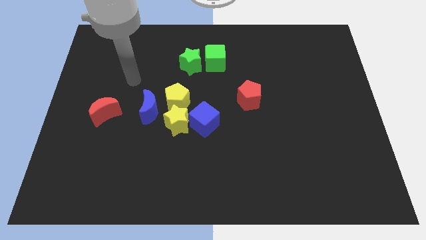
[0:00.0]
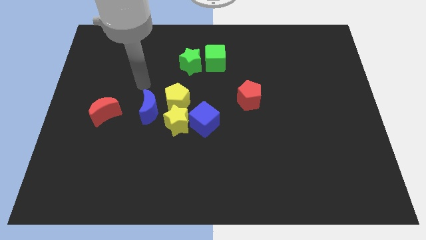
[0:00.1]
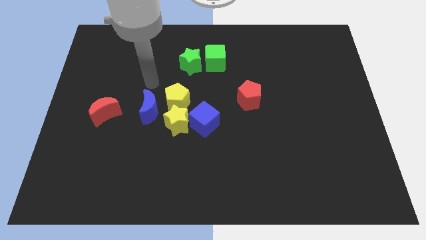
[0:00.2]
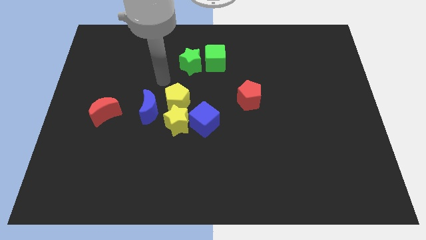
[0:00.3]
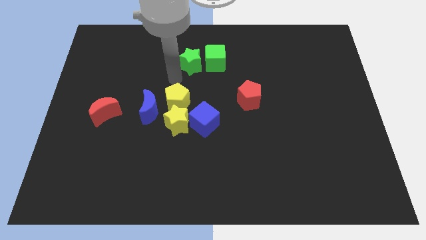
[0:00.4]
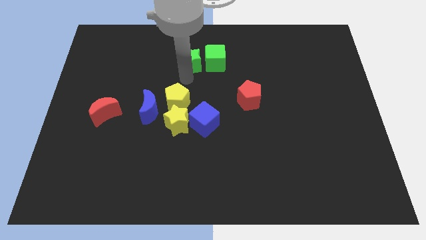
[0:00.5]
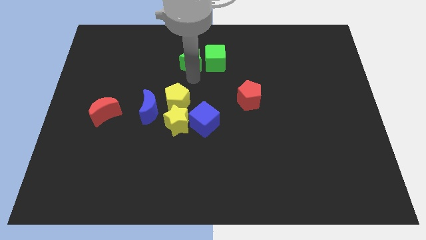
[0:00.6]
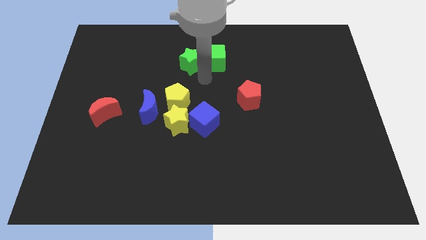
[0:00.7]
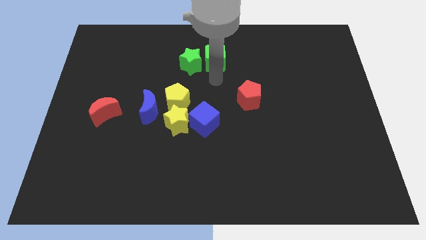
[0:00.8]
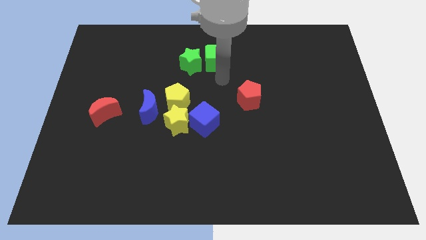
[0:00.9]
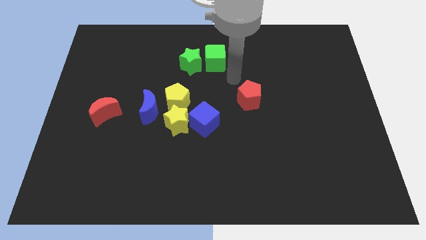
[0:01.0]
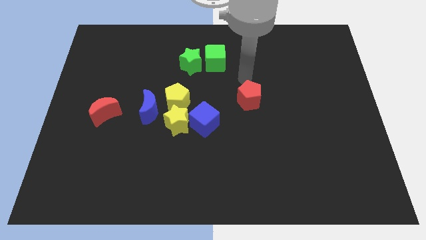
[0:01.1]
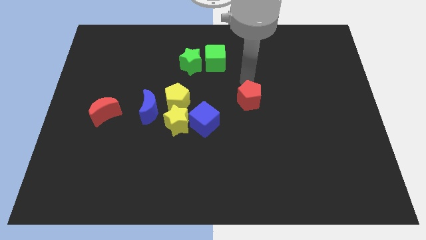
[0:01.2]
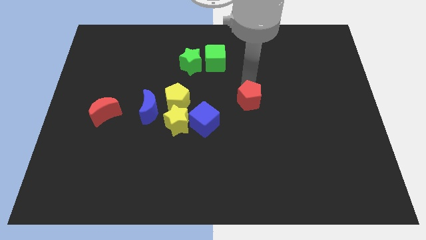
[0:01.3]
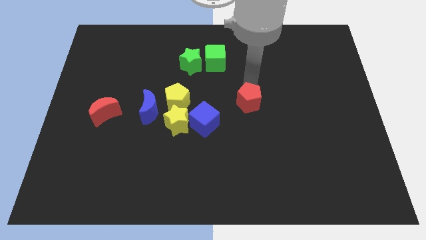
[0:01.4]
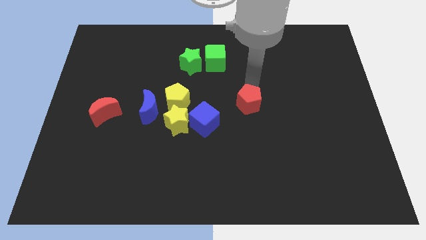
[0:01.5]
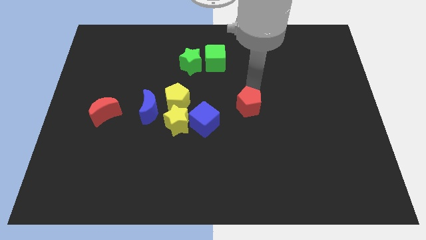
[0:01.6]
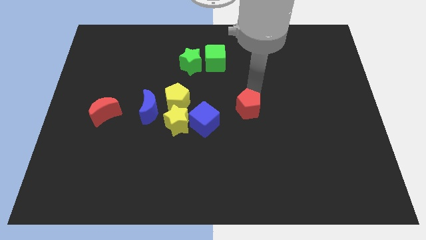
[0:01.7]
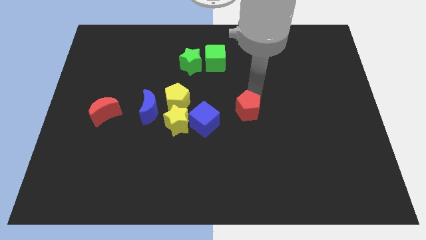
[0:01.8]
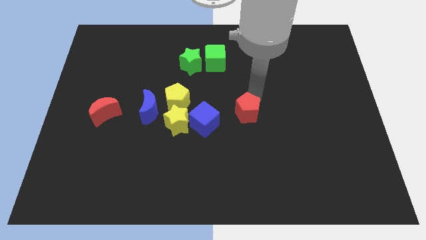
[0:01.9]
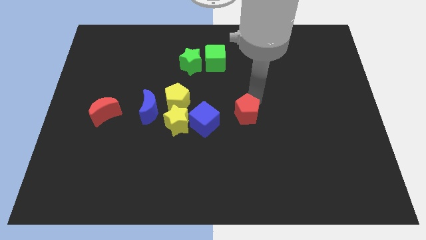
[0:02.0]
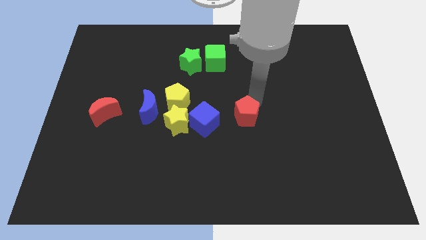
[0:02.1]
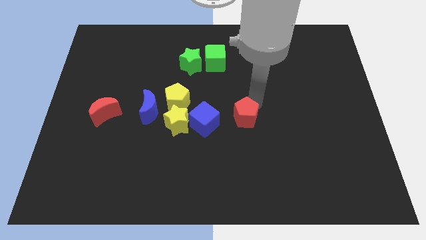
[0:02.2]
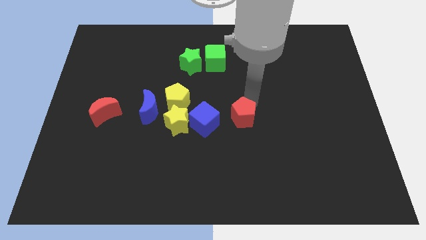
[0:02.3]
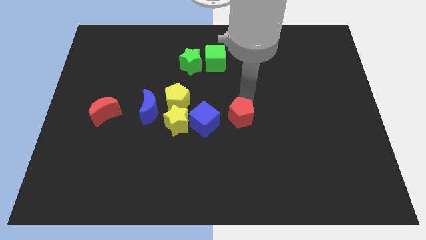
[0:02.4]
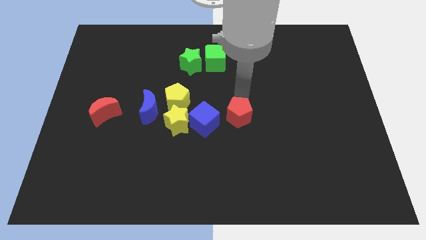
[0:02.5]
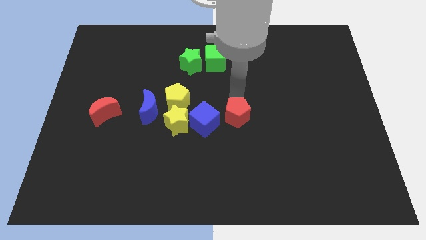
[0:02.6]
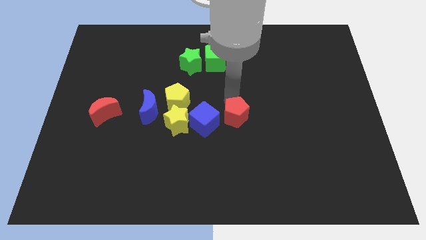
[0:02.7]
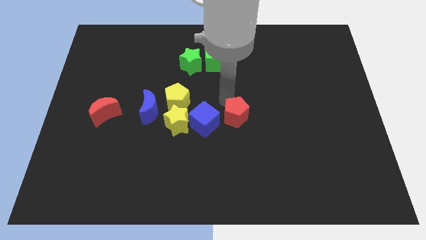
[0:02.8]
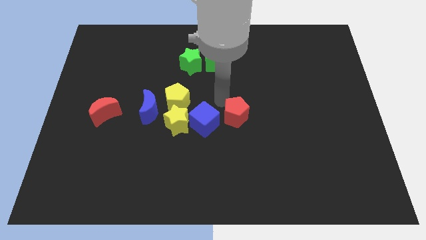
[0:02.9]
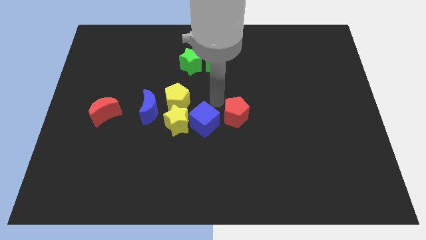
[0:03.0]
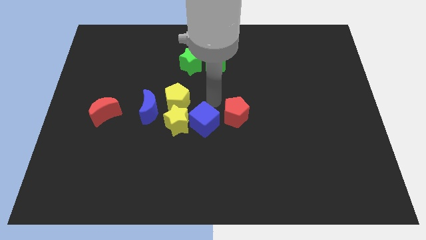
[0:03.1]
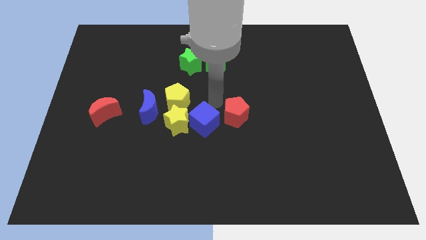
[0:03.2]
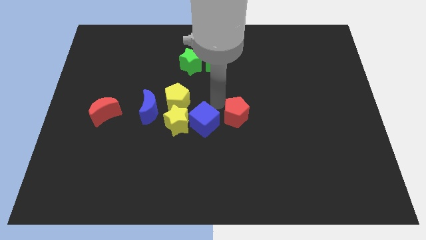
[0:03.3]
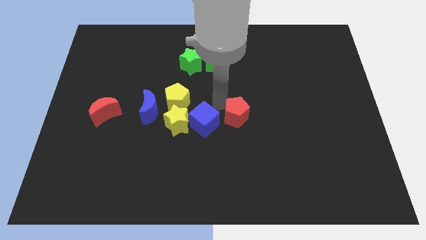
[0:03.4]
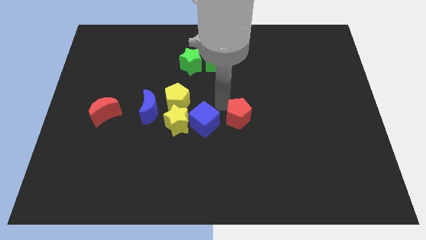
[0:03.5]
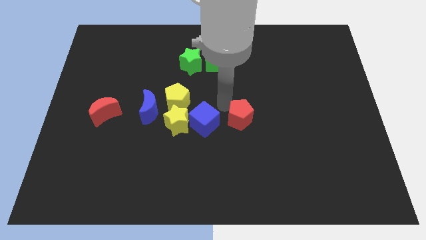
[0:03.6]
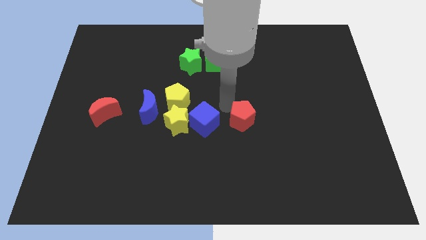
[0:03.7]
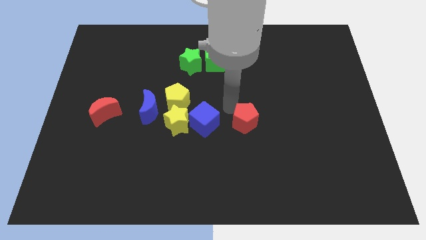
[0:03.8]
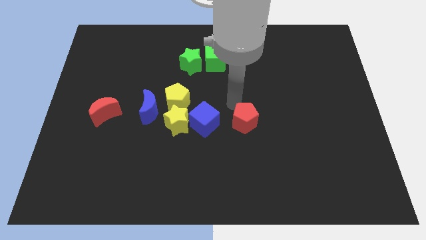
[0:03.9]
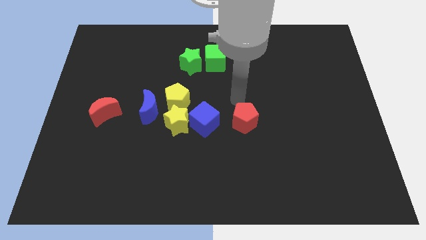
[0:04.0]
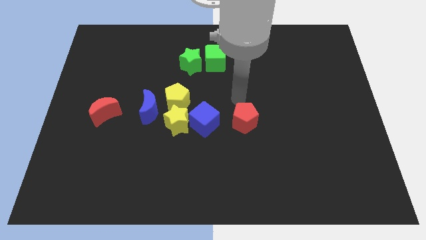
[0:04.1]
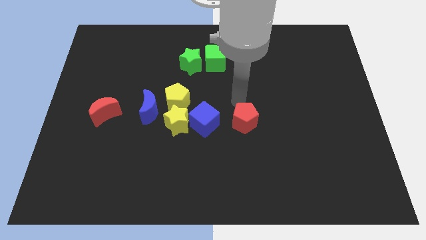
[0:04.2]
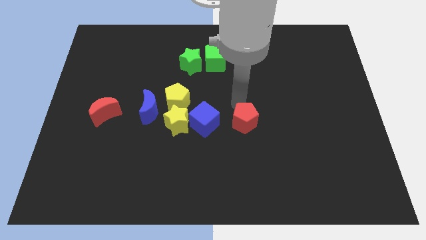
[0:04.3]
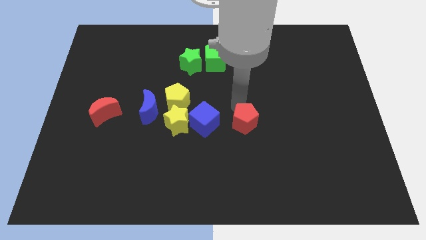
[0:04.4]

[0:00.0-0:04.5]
push the red pentagon a bit downwards

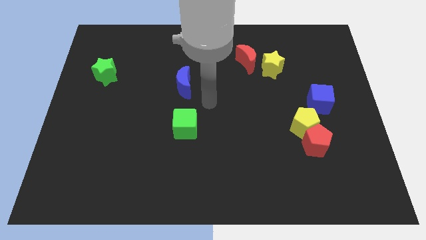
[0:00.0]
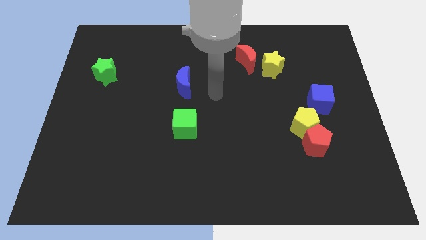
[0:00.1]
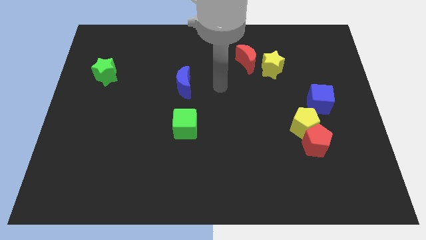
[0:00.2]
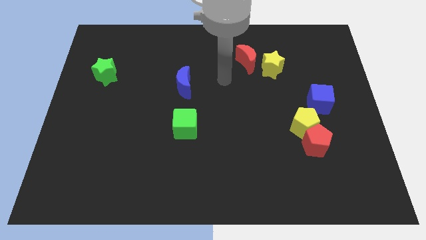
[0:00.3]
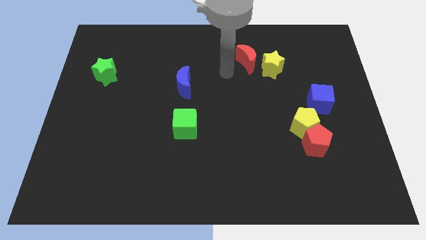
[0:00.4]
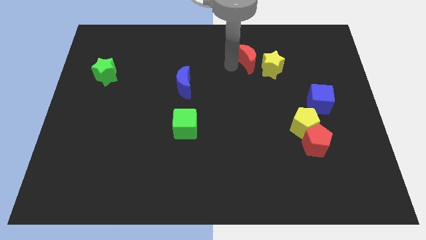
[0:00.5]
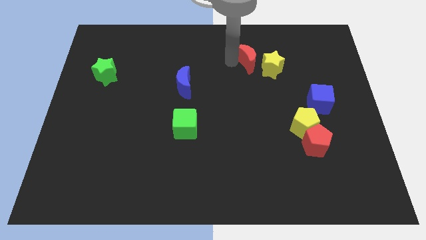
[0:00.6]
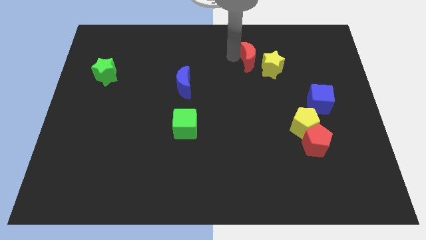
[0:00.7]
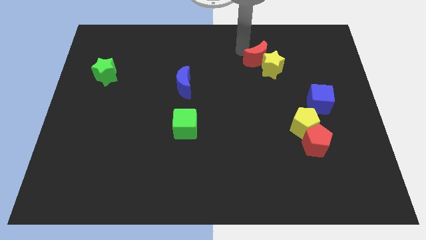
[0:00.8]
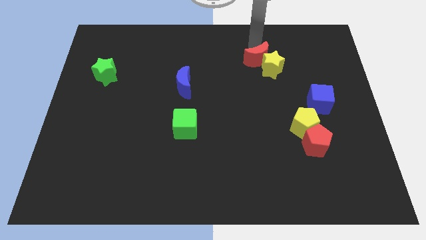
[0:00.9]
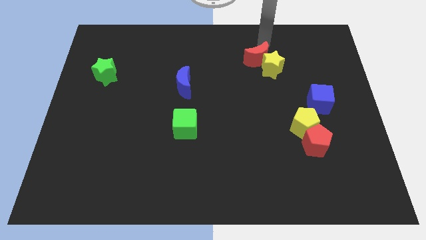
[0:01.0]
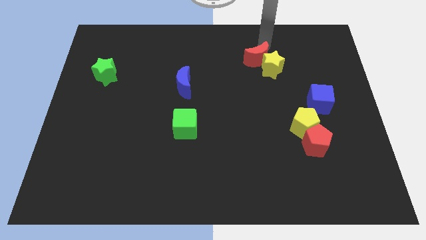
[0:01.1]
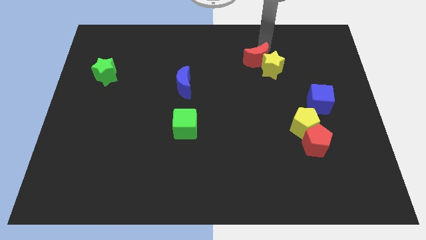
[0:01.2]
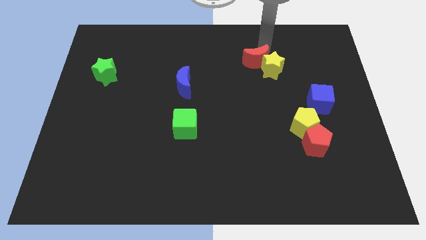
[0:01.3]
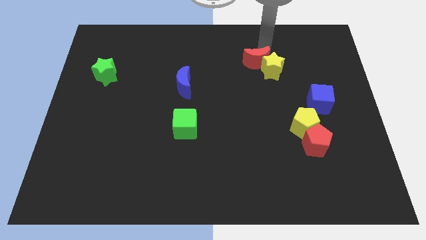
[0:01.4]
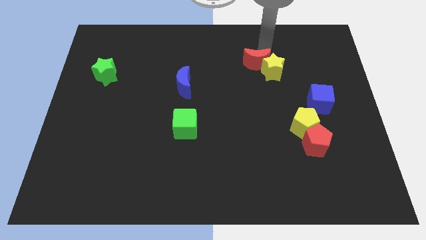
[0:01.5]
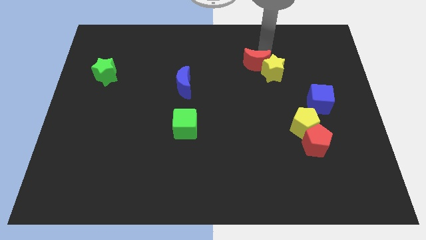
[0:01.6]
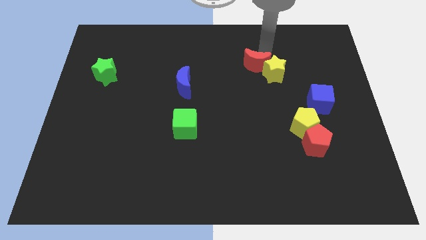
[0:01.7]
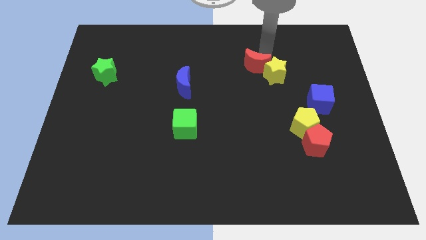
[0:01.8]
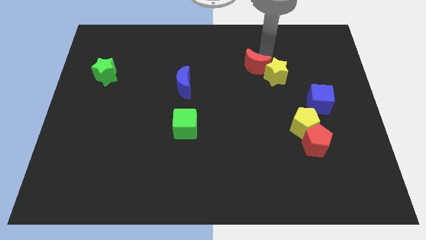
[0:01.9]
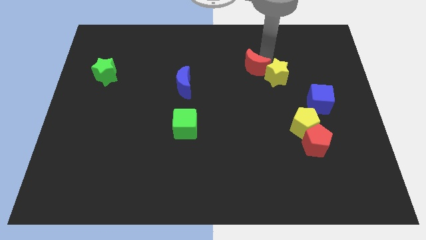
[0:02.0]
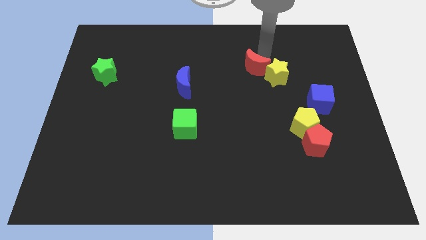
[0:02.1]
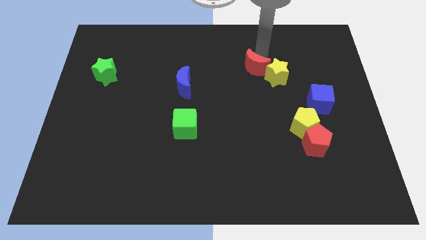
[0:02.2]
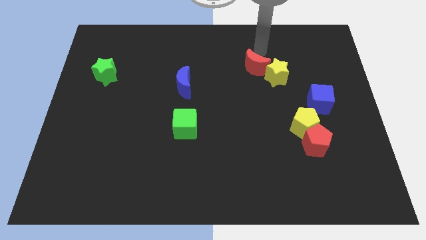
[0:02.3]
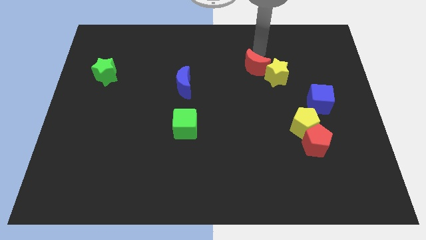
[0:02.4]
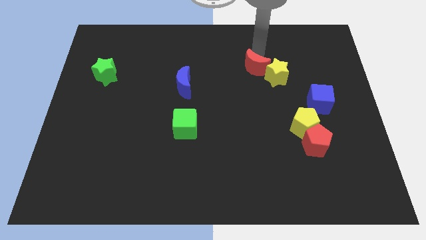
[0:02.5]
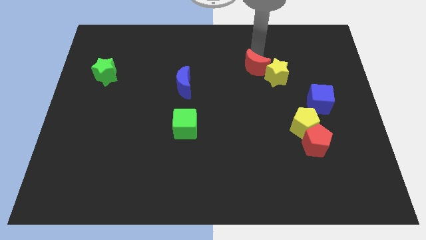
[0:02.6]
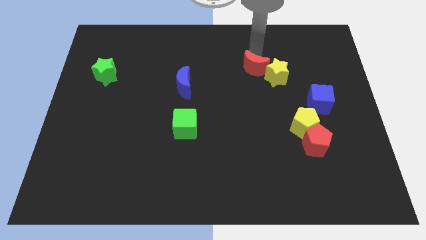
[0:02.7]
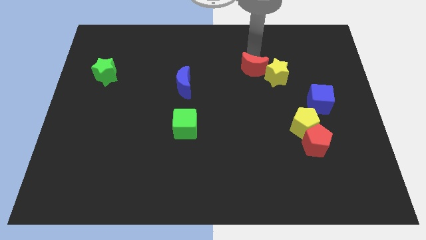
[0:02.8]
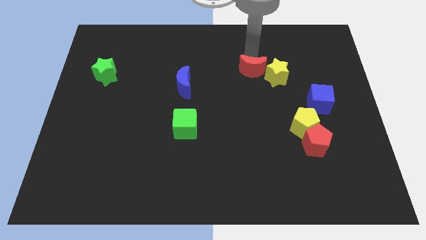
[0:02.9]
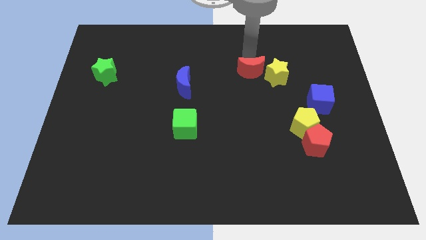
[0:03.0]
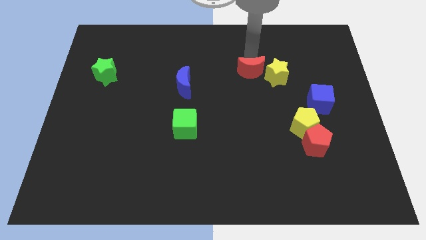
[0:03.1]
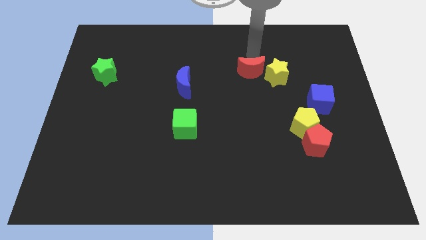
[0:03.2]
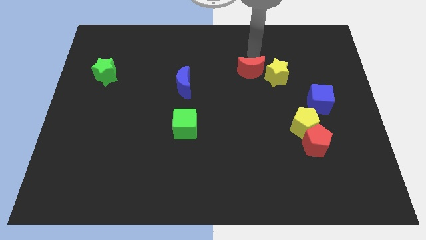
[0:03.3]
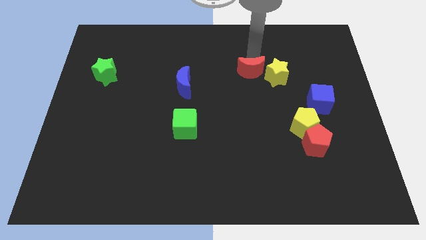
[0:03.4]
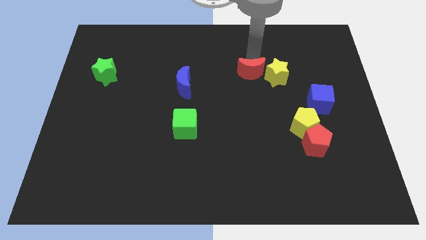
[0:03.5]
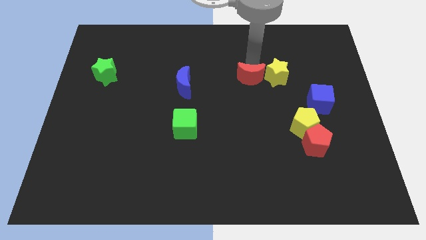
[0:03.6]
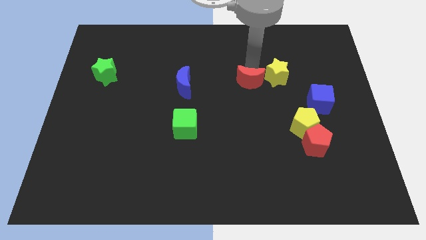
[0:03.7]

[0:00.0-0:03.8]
slightly push the red moon downwards
